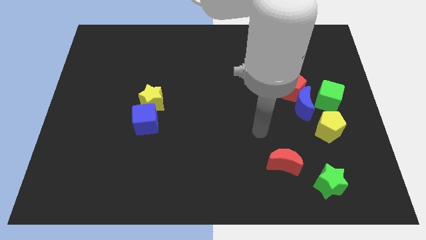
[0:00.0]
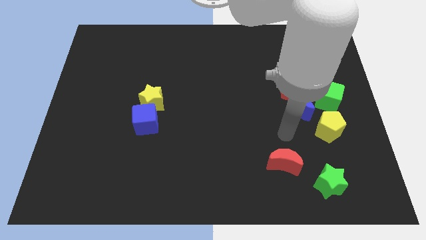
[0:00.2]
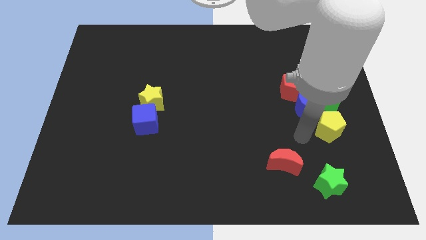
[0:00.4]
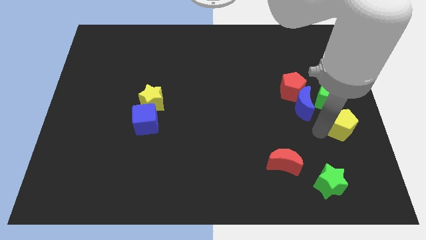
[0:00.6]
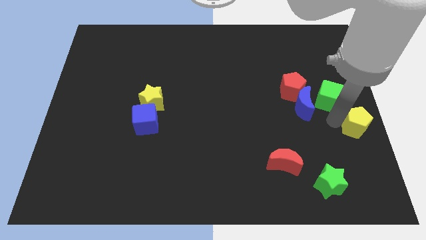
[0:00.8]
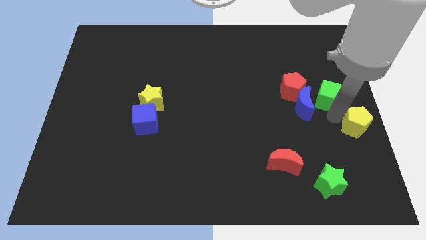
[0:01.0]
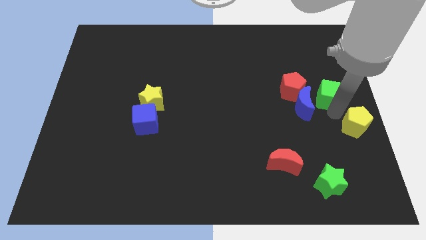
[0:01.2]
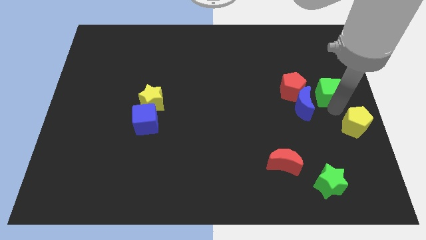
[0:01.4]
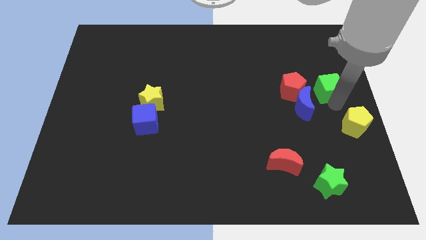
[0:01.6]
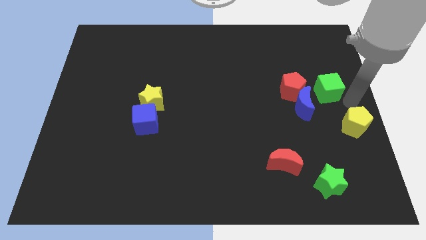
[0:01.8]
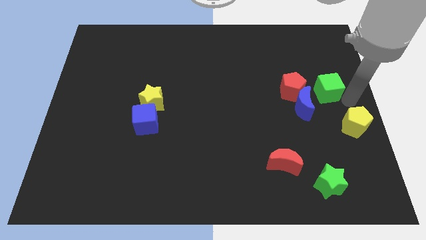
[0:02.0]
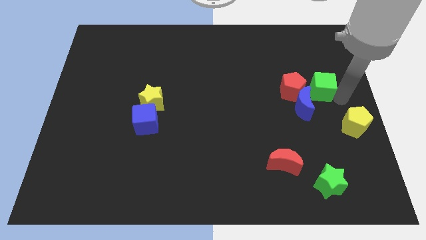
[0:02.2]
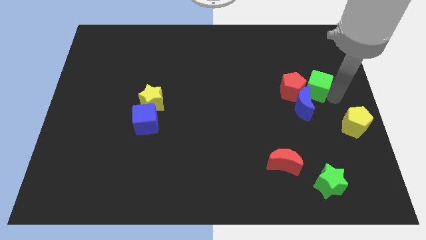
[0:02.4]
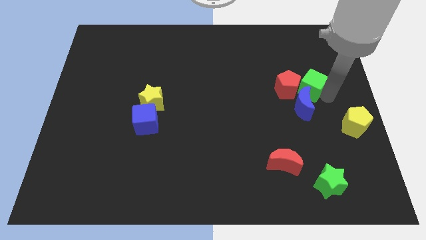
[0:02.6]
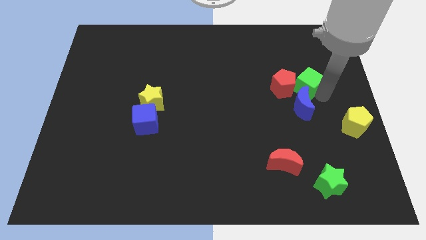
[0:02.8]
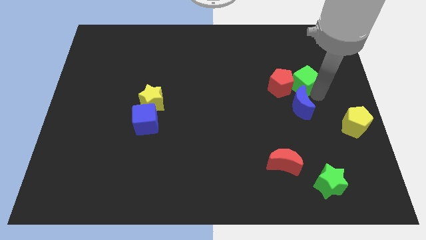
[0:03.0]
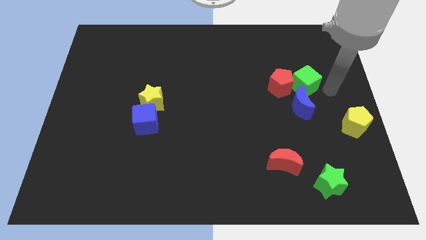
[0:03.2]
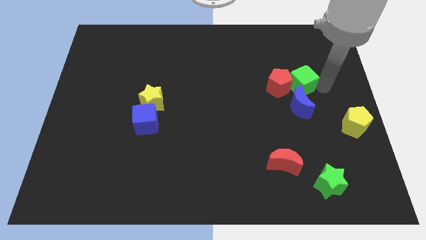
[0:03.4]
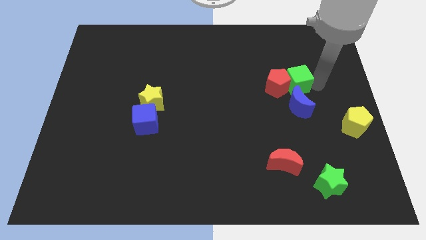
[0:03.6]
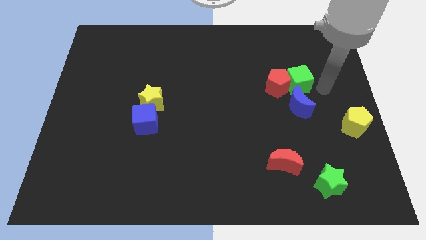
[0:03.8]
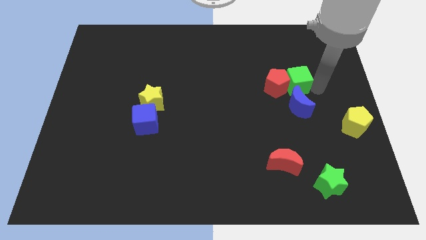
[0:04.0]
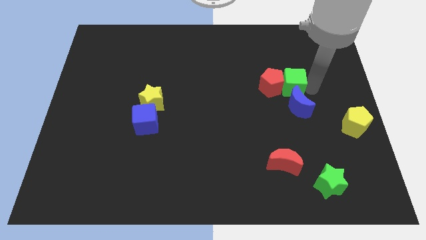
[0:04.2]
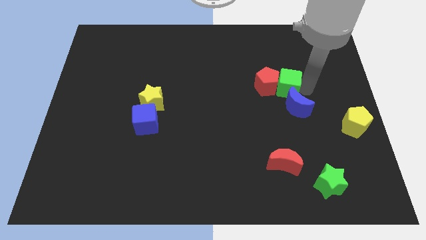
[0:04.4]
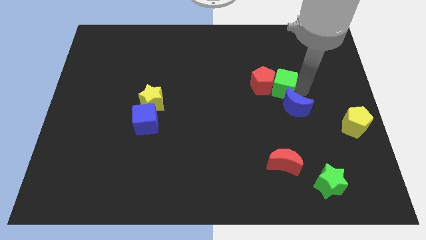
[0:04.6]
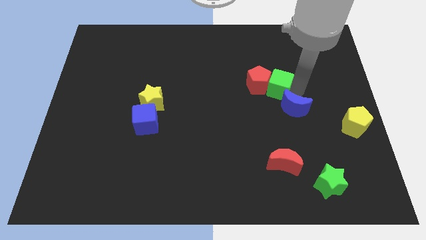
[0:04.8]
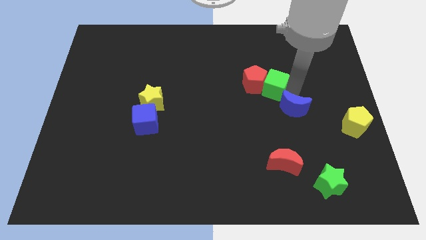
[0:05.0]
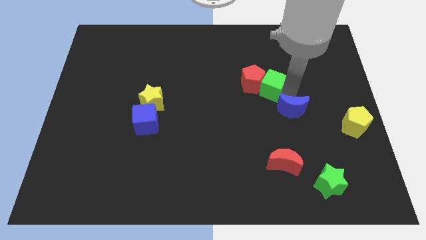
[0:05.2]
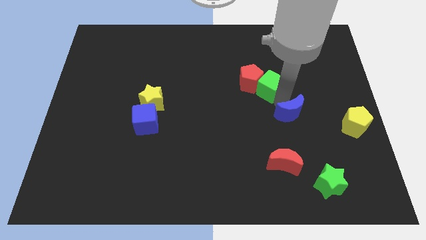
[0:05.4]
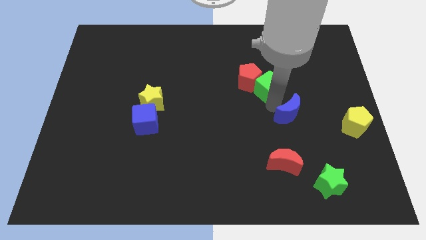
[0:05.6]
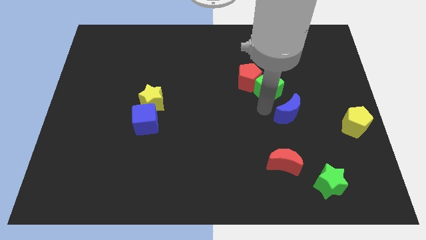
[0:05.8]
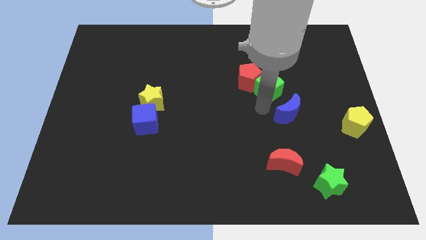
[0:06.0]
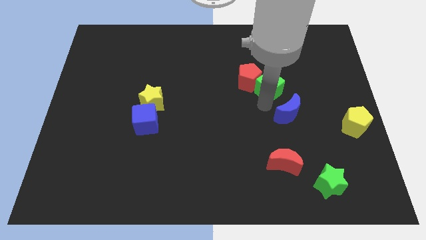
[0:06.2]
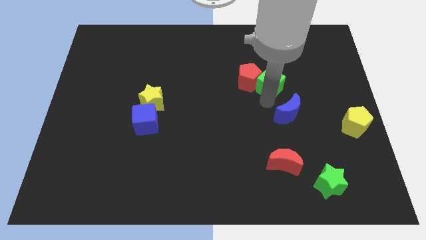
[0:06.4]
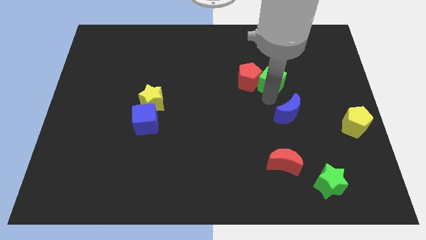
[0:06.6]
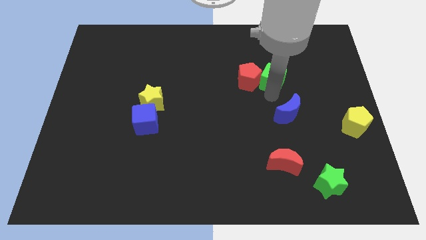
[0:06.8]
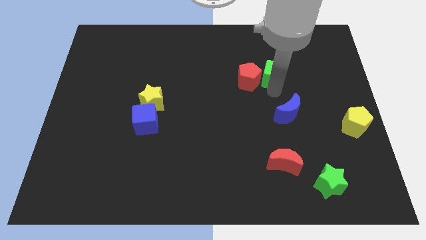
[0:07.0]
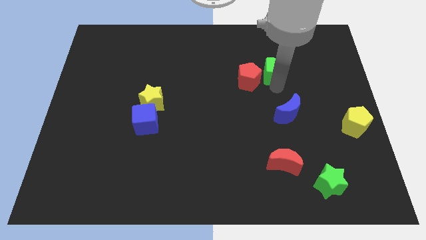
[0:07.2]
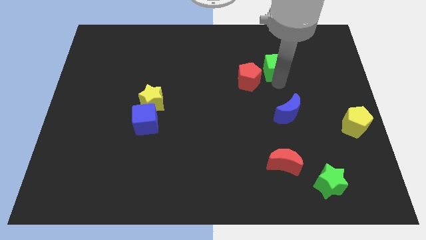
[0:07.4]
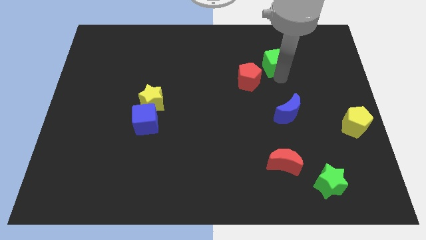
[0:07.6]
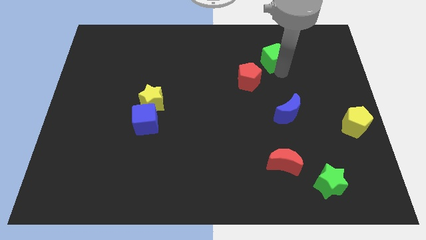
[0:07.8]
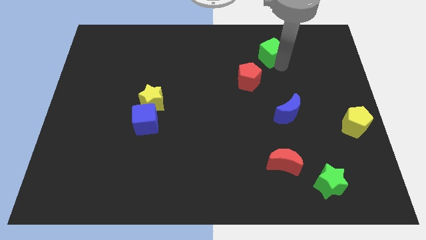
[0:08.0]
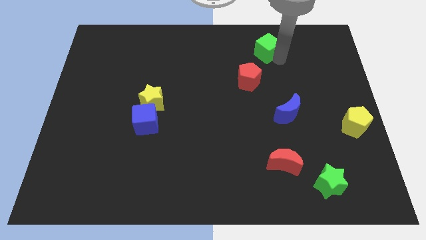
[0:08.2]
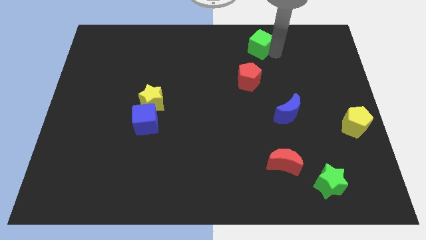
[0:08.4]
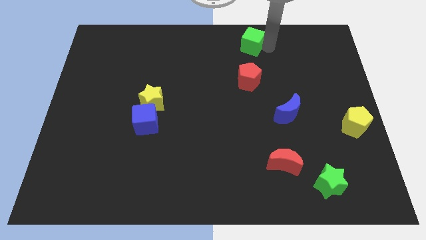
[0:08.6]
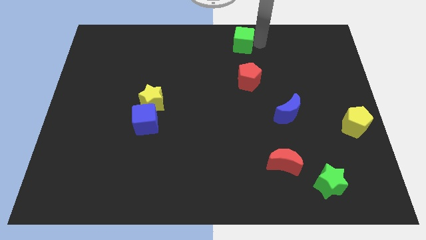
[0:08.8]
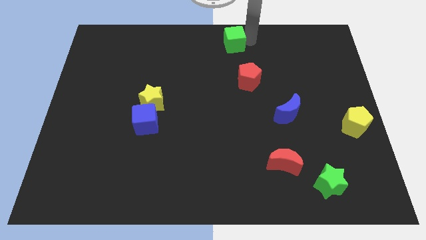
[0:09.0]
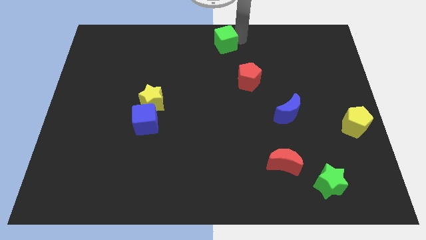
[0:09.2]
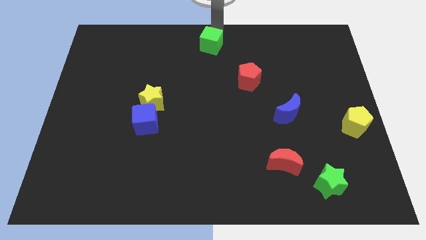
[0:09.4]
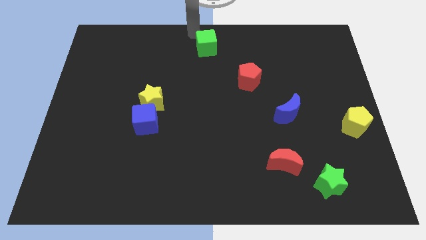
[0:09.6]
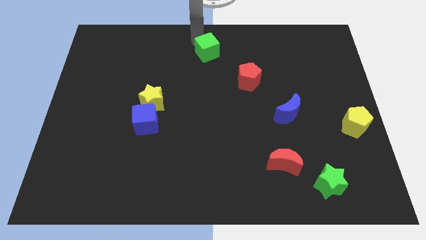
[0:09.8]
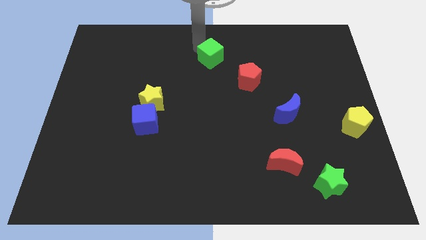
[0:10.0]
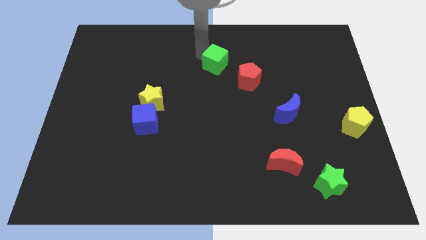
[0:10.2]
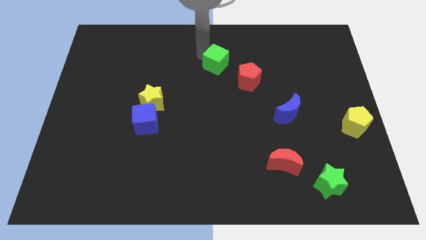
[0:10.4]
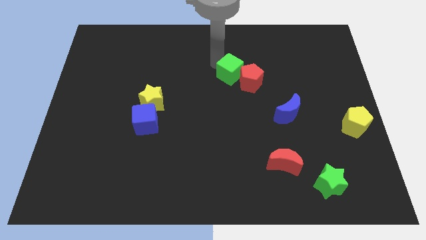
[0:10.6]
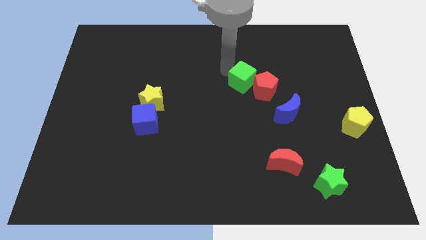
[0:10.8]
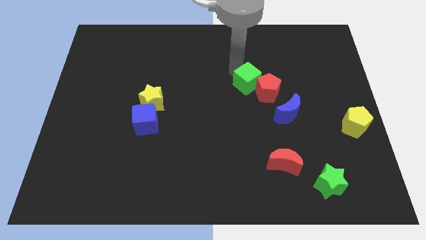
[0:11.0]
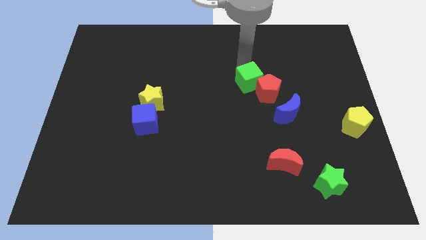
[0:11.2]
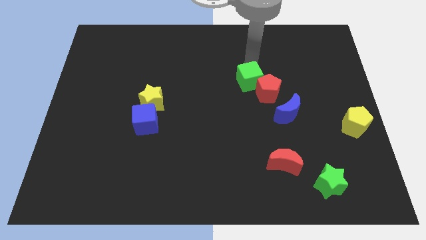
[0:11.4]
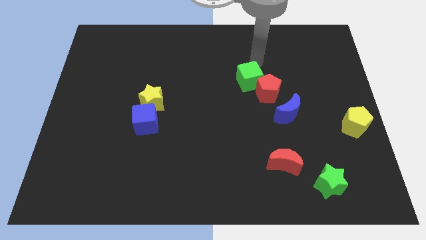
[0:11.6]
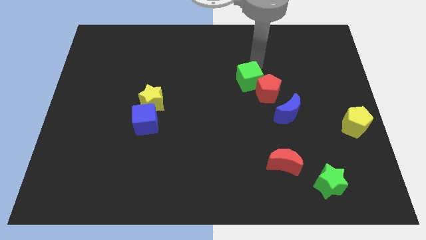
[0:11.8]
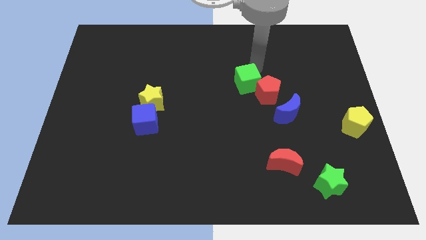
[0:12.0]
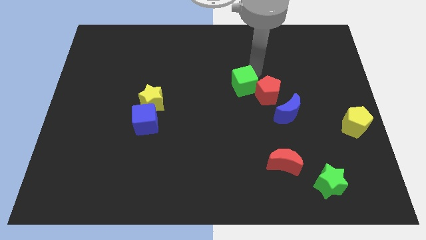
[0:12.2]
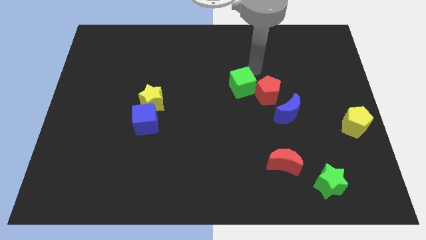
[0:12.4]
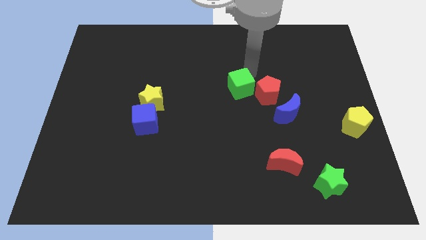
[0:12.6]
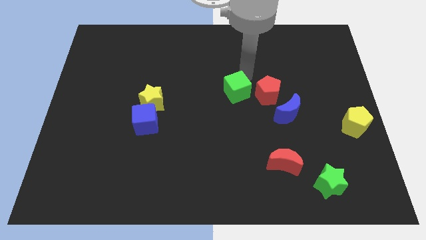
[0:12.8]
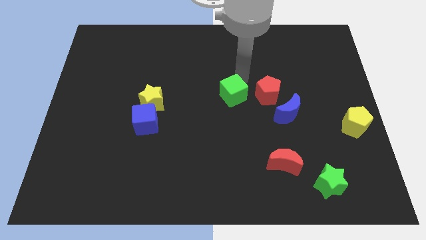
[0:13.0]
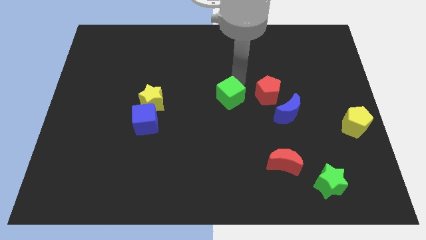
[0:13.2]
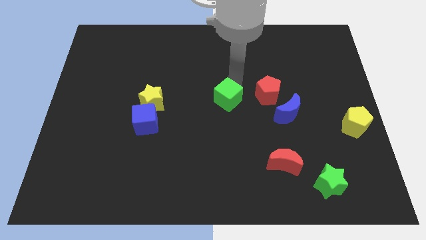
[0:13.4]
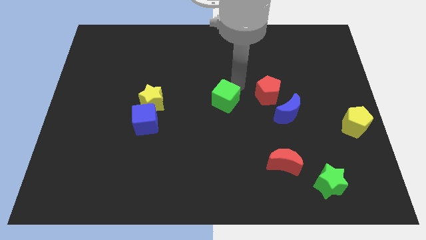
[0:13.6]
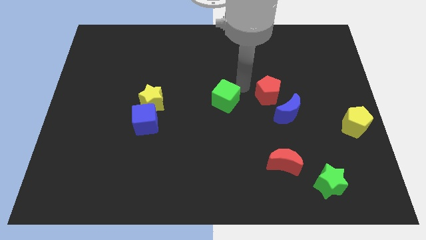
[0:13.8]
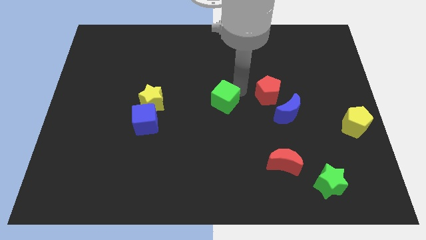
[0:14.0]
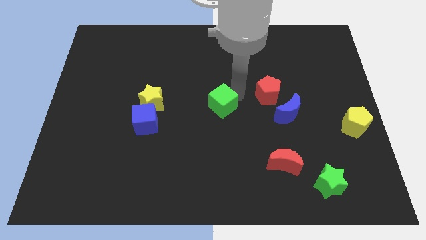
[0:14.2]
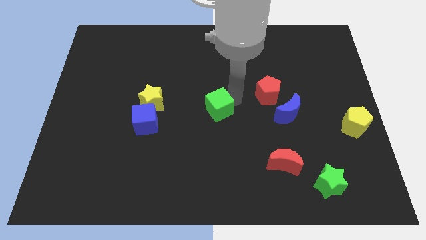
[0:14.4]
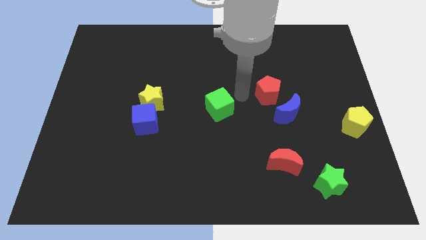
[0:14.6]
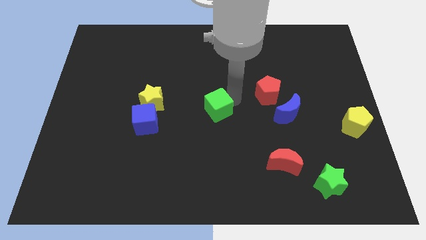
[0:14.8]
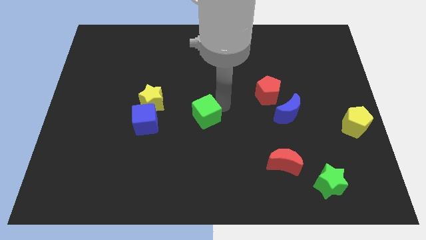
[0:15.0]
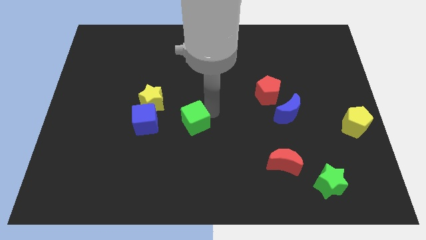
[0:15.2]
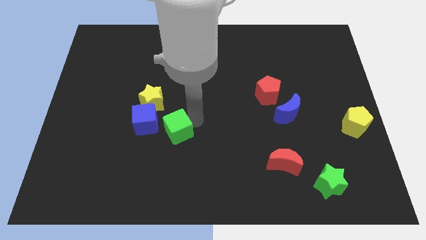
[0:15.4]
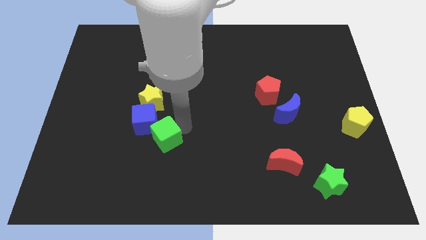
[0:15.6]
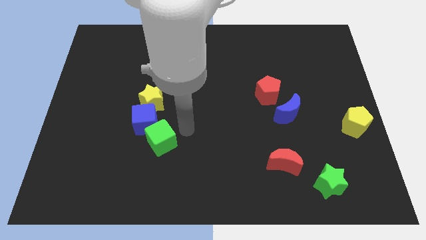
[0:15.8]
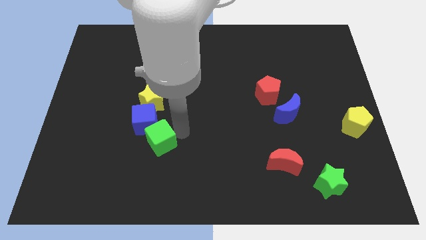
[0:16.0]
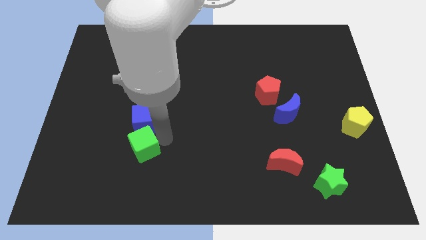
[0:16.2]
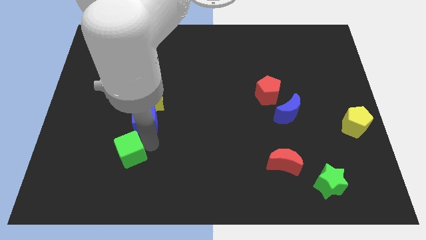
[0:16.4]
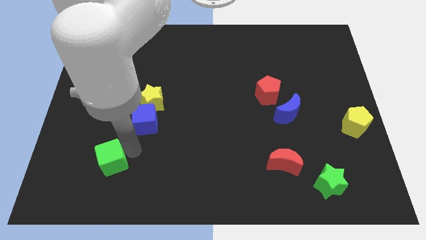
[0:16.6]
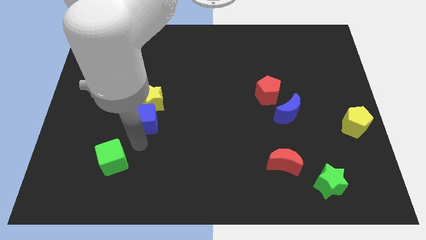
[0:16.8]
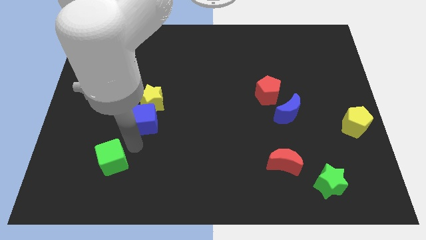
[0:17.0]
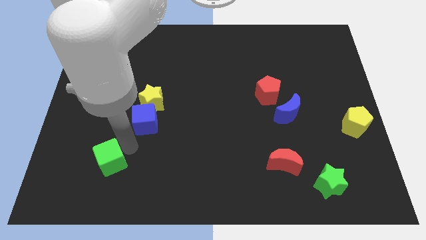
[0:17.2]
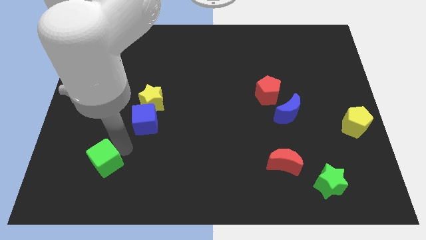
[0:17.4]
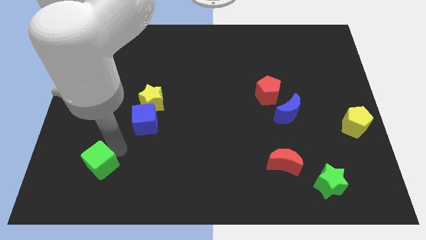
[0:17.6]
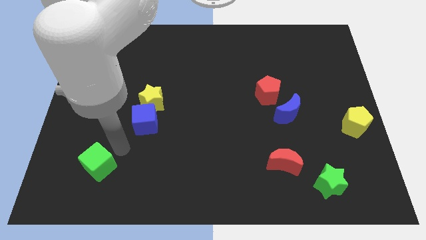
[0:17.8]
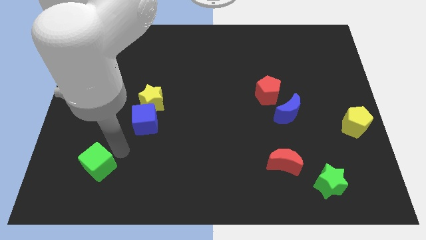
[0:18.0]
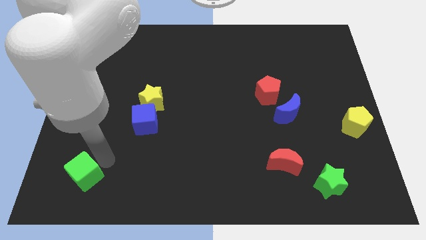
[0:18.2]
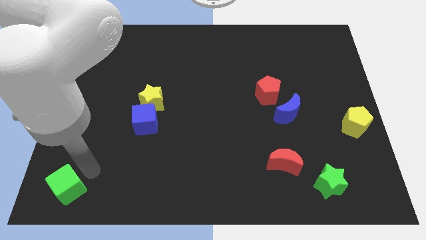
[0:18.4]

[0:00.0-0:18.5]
move the green cube to the bottom left
